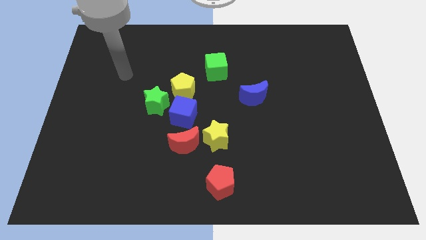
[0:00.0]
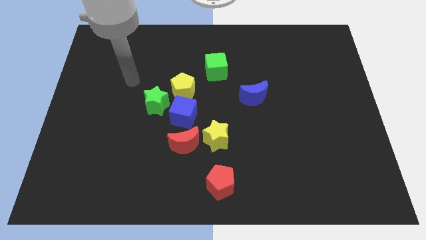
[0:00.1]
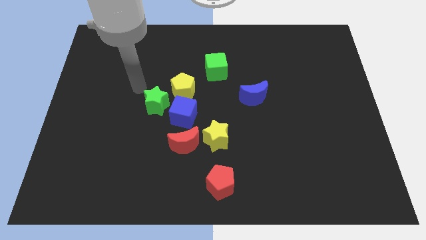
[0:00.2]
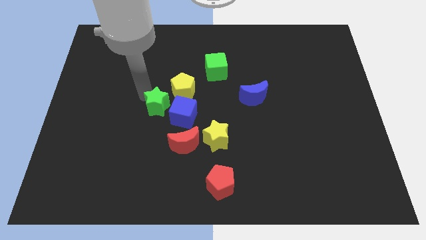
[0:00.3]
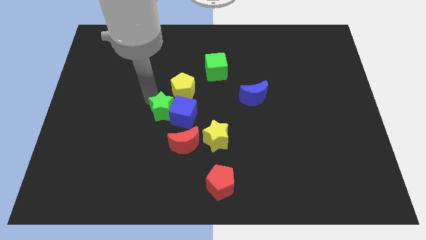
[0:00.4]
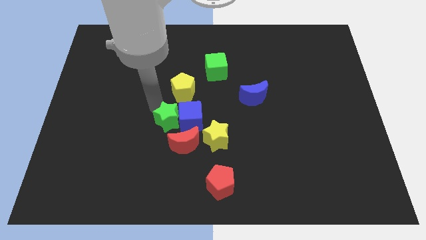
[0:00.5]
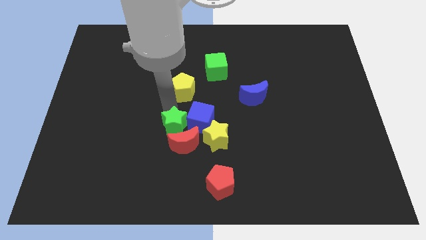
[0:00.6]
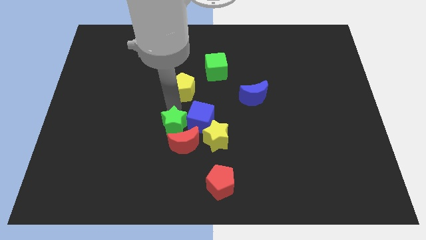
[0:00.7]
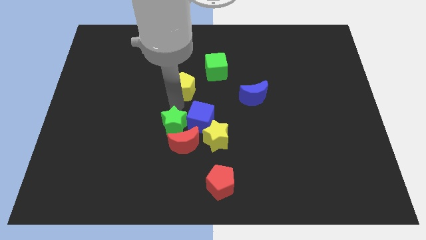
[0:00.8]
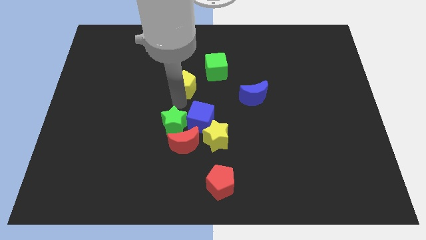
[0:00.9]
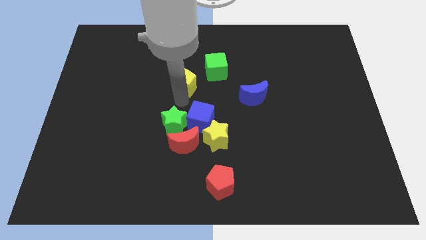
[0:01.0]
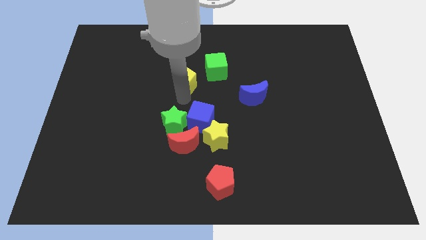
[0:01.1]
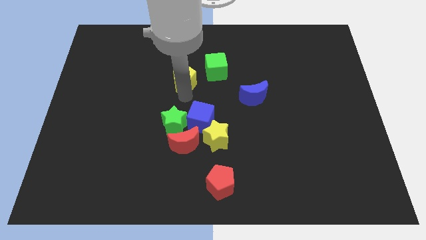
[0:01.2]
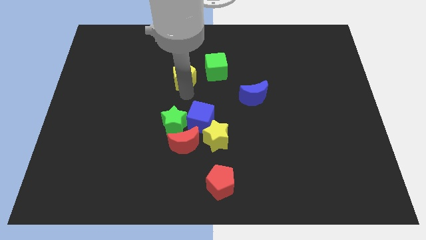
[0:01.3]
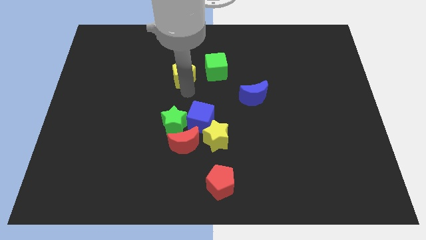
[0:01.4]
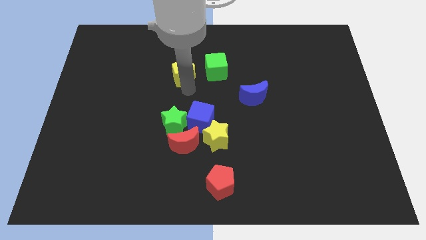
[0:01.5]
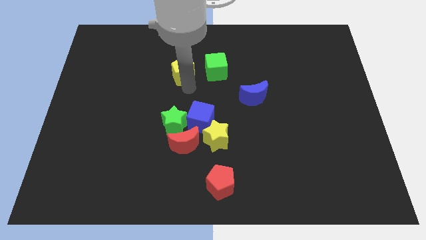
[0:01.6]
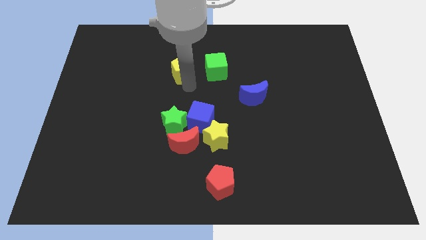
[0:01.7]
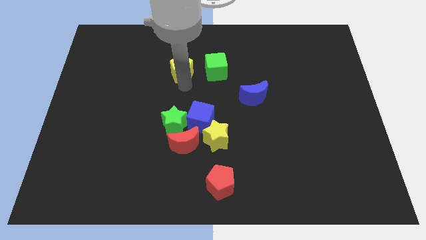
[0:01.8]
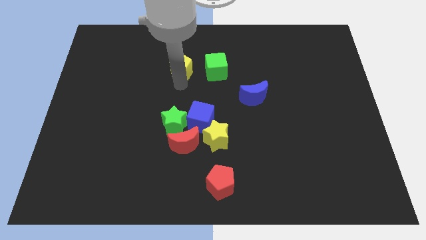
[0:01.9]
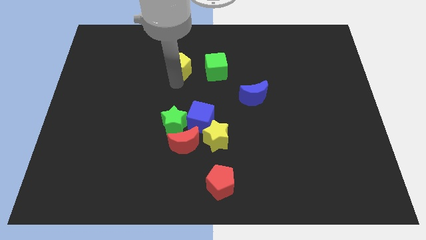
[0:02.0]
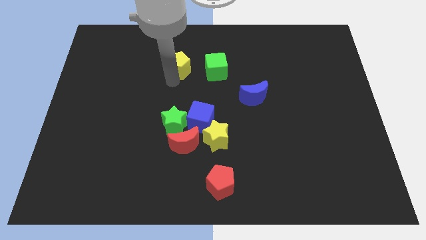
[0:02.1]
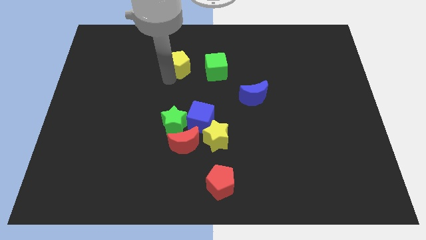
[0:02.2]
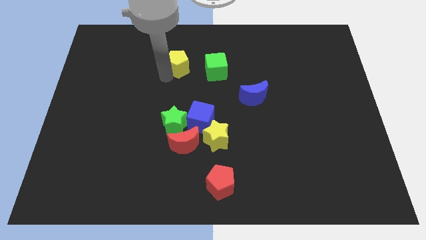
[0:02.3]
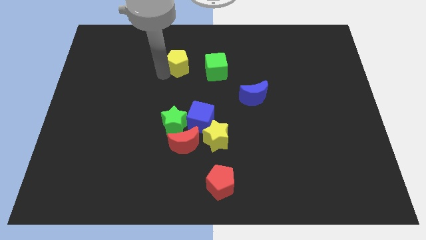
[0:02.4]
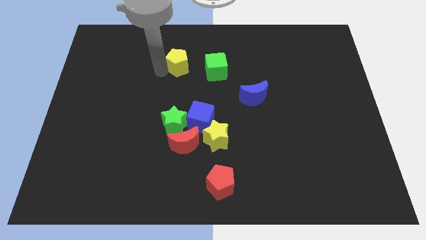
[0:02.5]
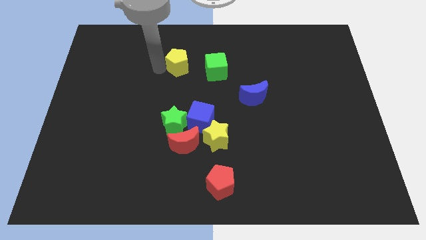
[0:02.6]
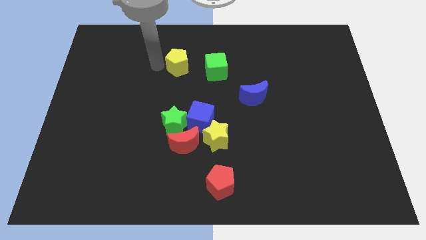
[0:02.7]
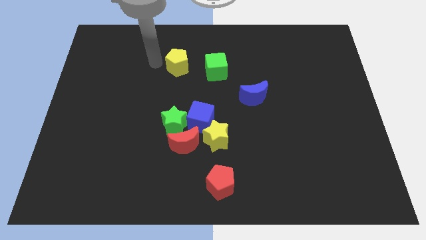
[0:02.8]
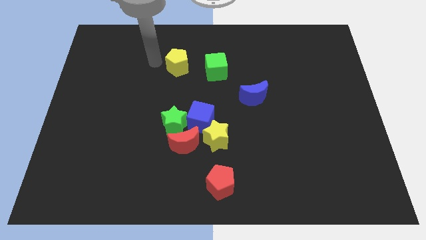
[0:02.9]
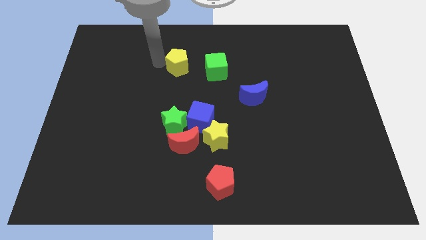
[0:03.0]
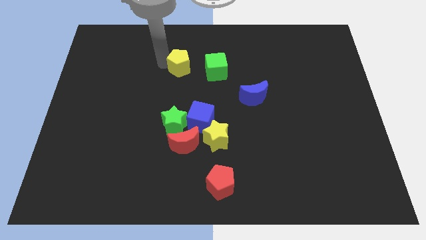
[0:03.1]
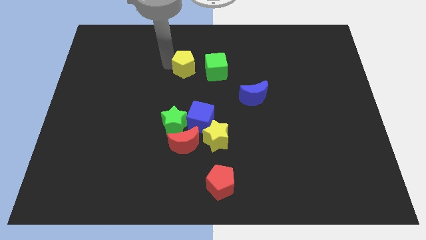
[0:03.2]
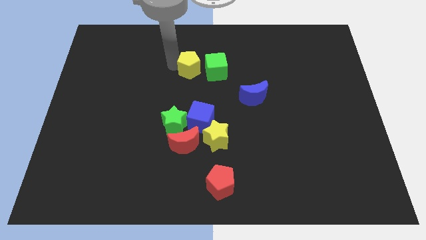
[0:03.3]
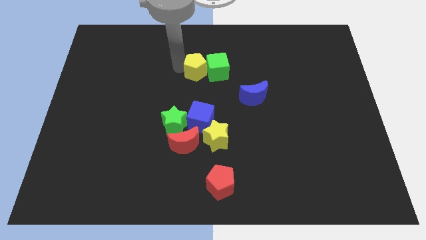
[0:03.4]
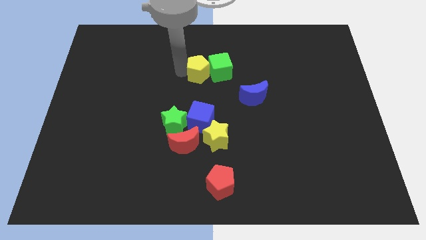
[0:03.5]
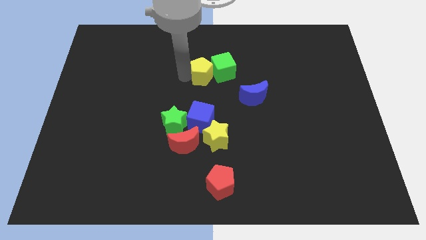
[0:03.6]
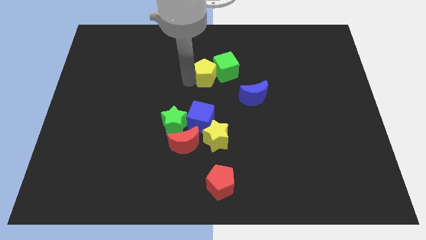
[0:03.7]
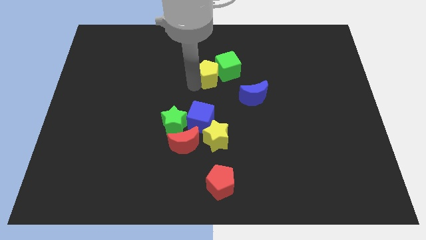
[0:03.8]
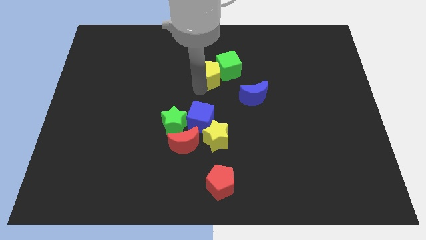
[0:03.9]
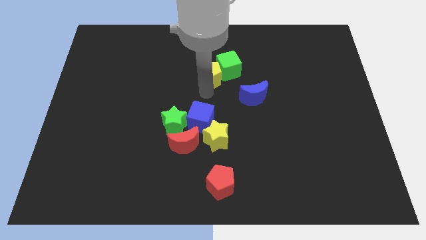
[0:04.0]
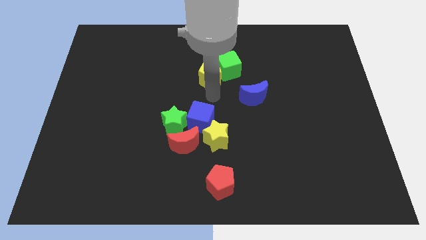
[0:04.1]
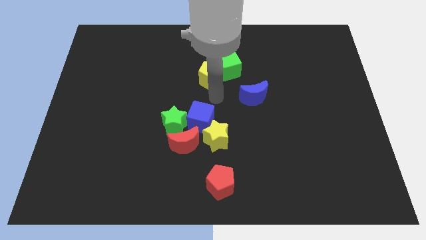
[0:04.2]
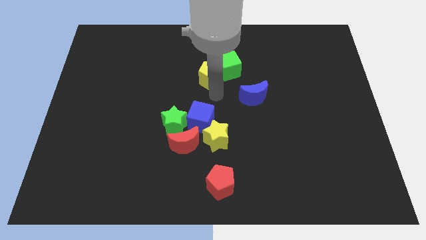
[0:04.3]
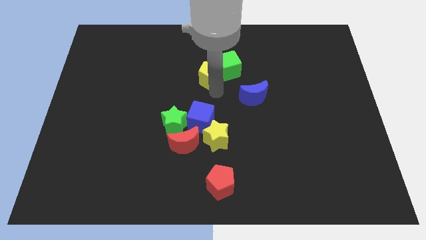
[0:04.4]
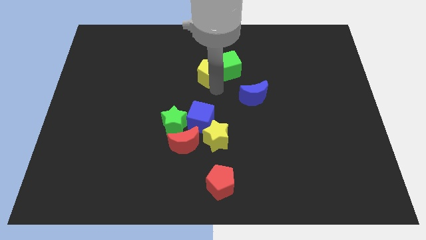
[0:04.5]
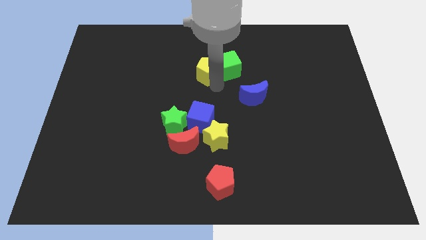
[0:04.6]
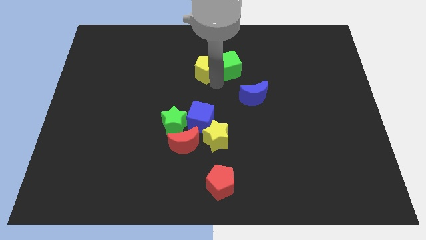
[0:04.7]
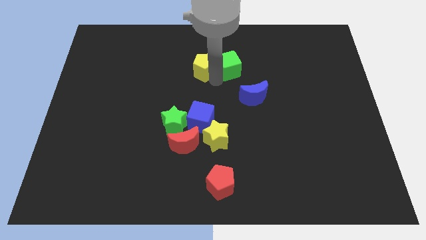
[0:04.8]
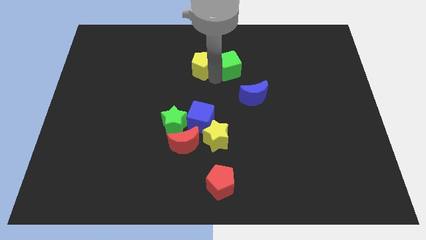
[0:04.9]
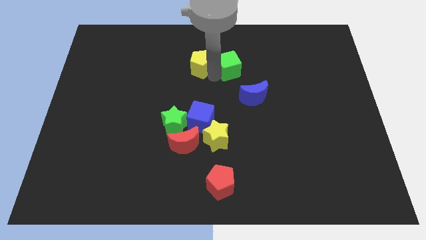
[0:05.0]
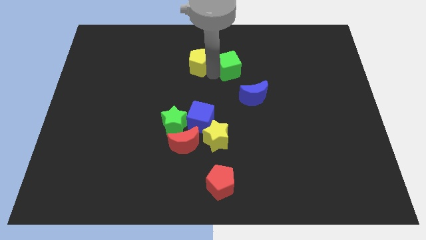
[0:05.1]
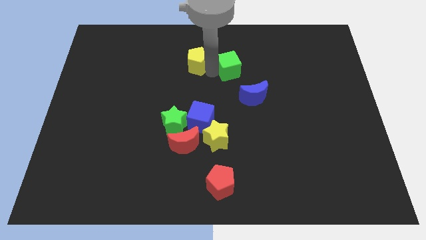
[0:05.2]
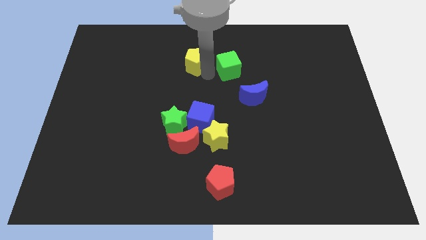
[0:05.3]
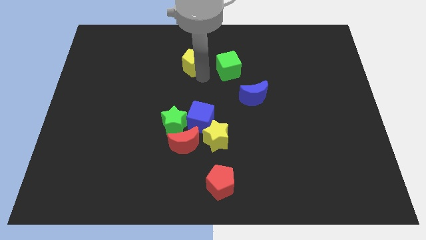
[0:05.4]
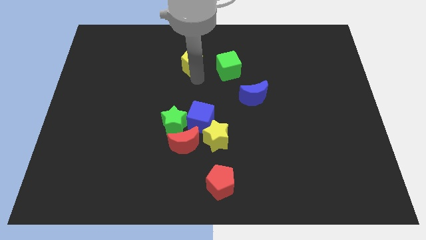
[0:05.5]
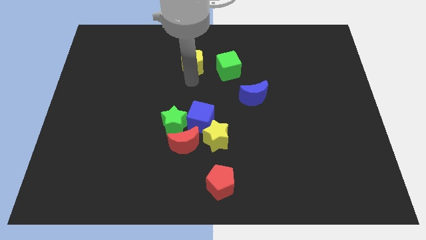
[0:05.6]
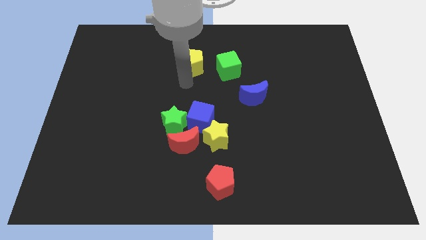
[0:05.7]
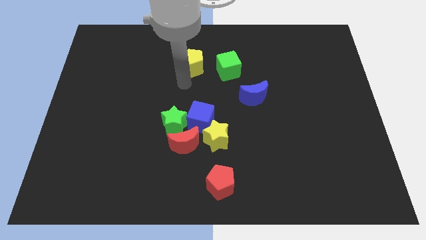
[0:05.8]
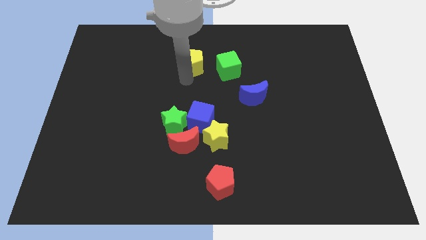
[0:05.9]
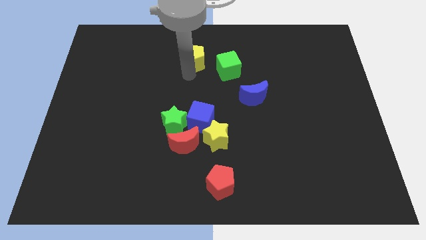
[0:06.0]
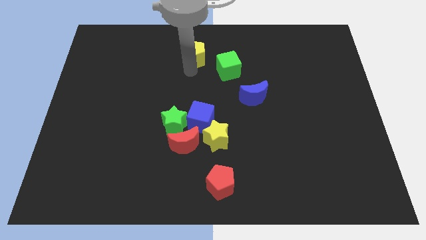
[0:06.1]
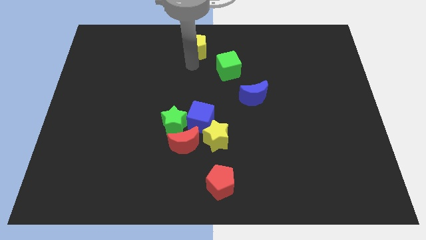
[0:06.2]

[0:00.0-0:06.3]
push the yellow pentagon to the top
